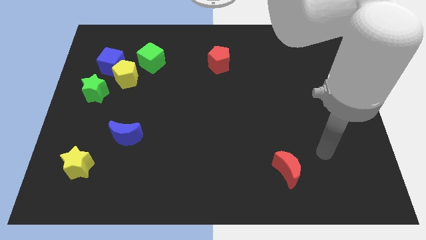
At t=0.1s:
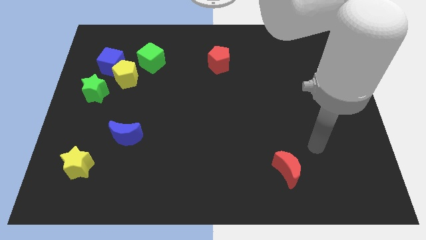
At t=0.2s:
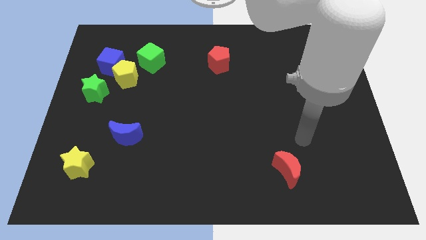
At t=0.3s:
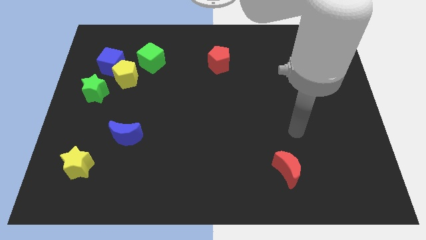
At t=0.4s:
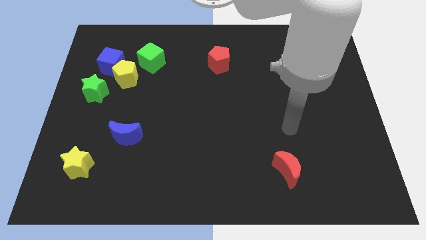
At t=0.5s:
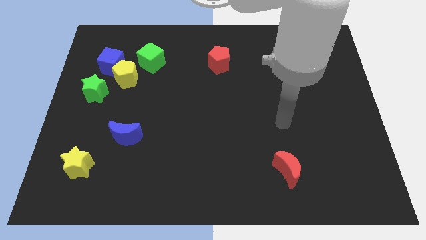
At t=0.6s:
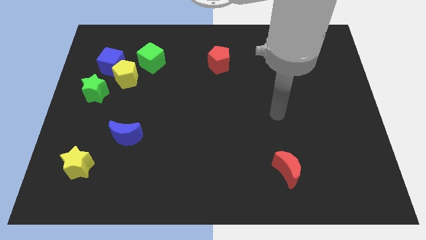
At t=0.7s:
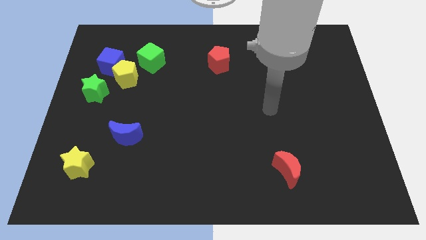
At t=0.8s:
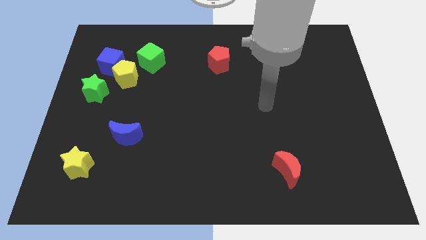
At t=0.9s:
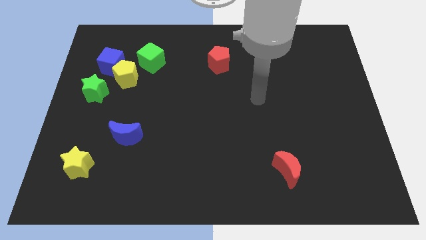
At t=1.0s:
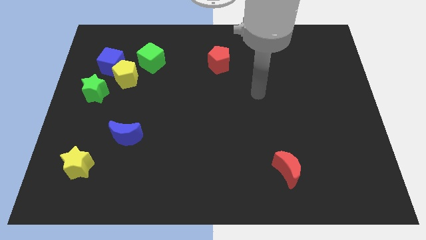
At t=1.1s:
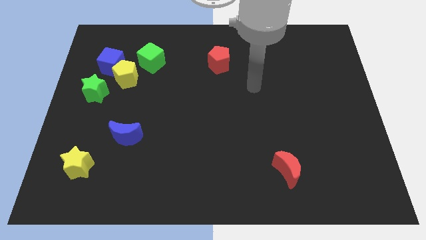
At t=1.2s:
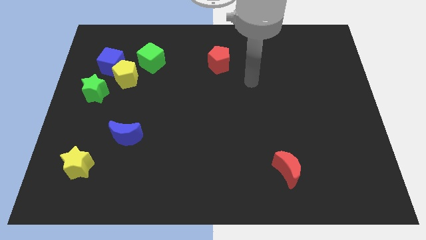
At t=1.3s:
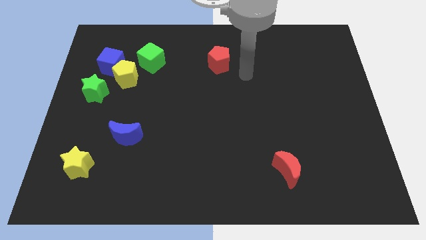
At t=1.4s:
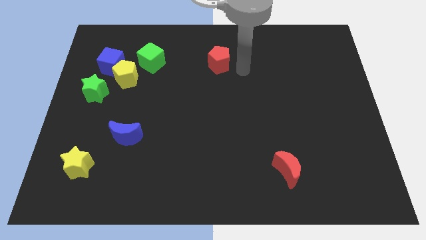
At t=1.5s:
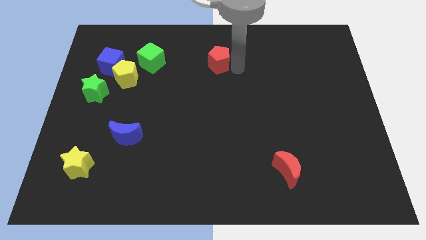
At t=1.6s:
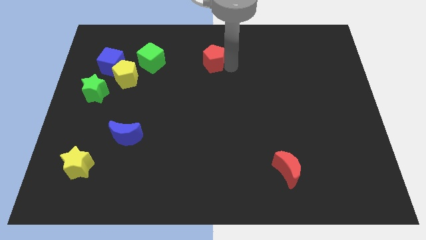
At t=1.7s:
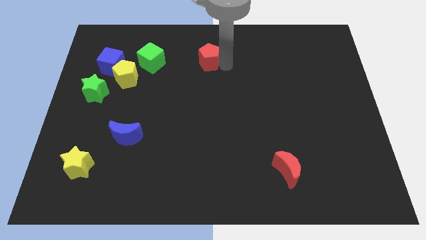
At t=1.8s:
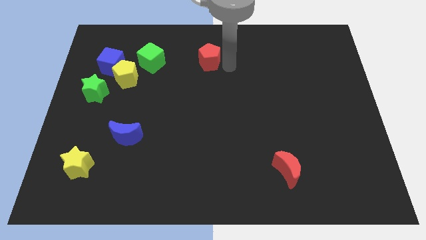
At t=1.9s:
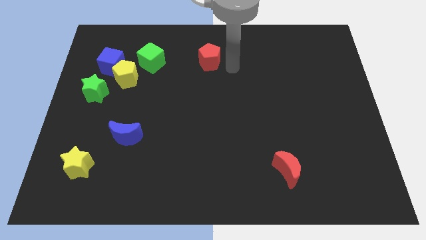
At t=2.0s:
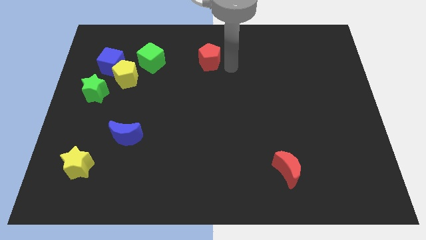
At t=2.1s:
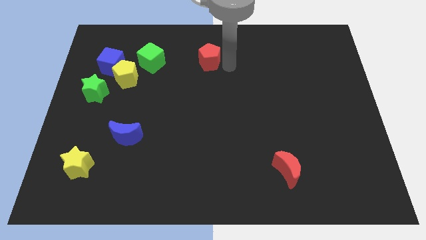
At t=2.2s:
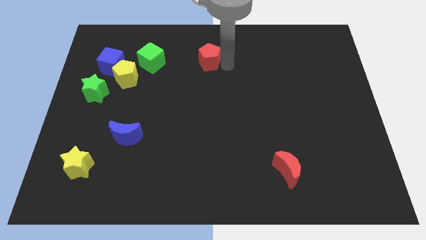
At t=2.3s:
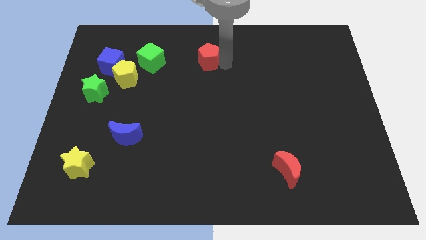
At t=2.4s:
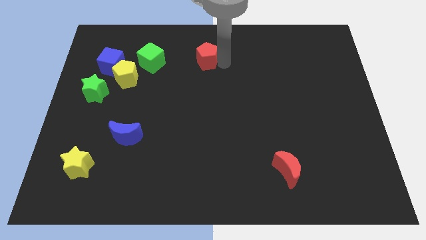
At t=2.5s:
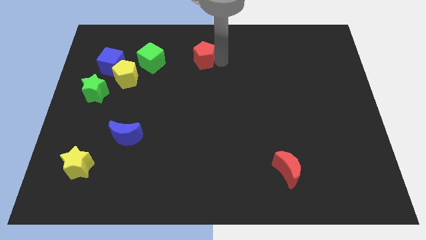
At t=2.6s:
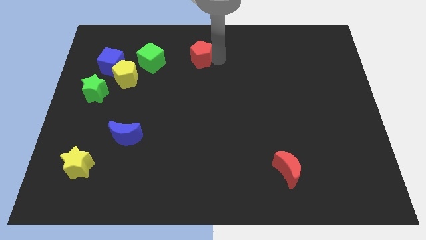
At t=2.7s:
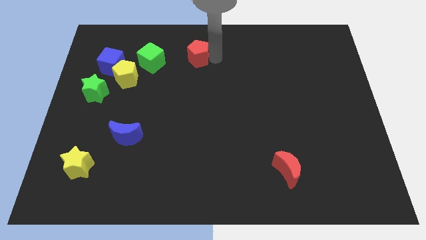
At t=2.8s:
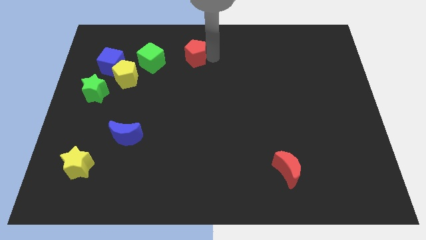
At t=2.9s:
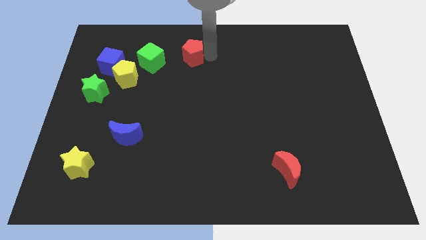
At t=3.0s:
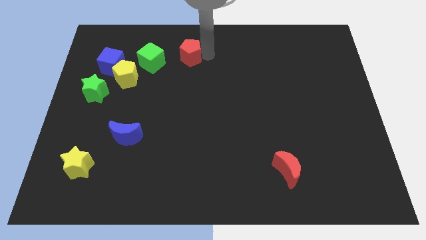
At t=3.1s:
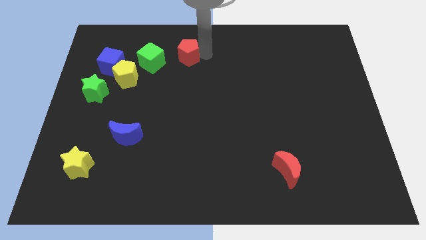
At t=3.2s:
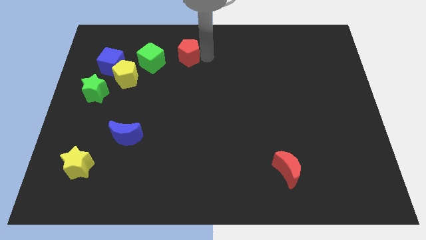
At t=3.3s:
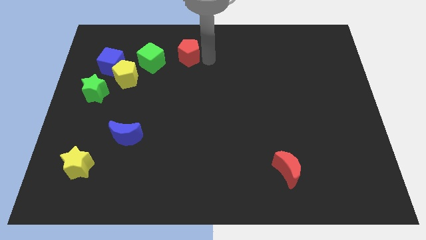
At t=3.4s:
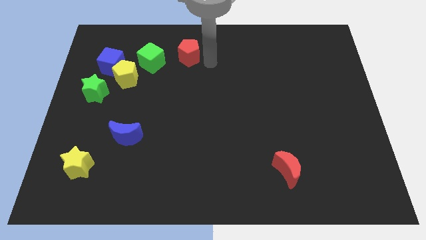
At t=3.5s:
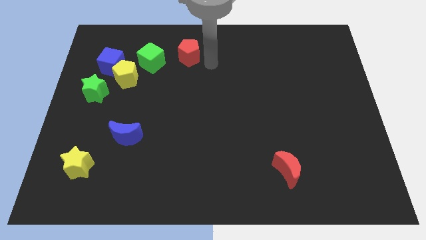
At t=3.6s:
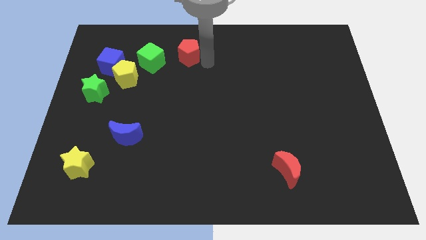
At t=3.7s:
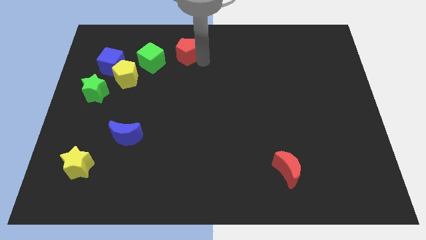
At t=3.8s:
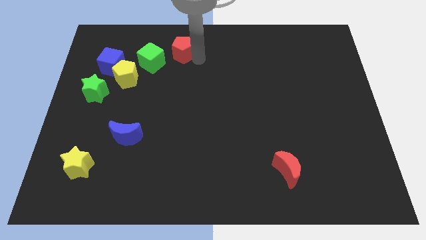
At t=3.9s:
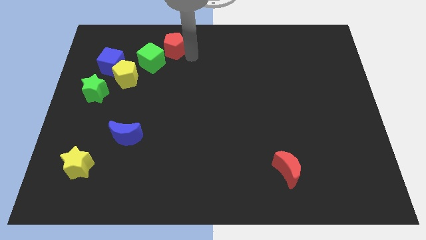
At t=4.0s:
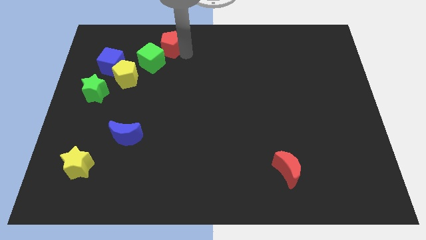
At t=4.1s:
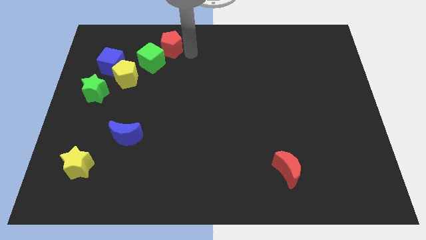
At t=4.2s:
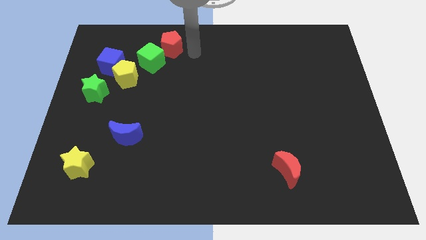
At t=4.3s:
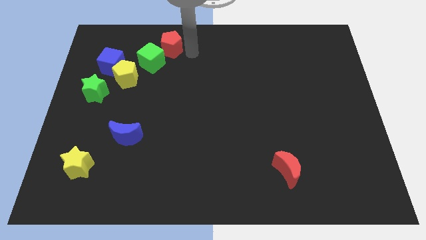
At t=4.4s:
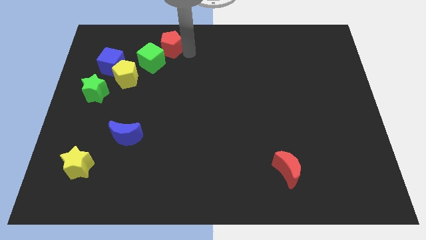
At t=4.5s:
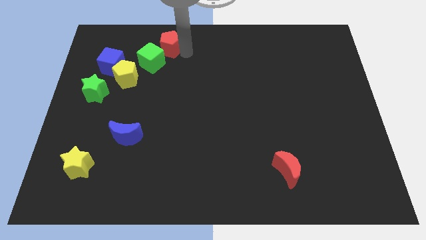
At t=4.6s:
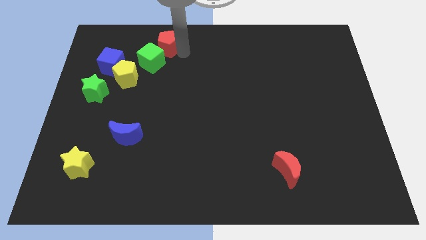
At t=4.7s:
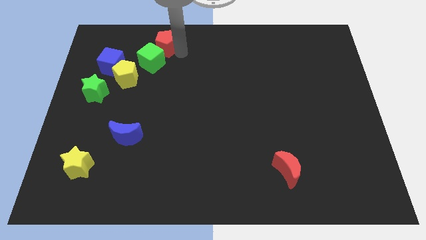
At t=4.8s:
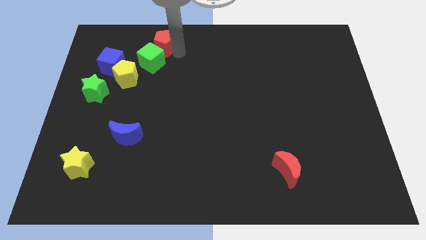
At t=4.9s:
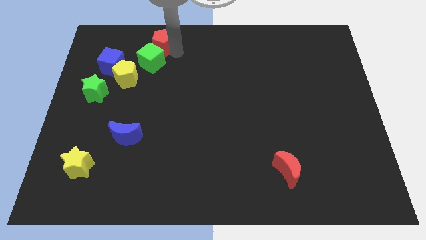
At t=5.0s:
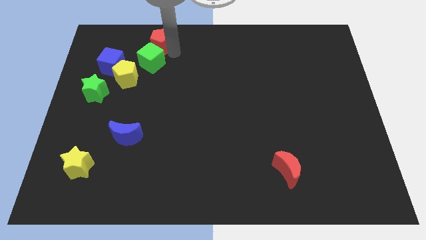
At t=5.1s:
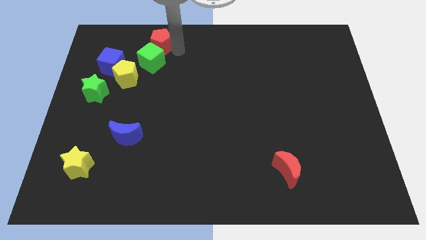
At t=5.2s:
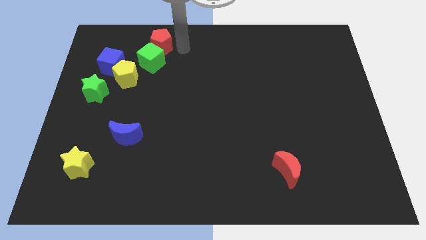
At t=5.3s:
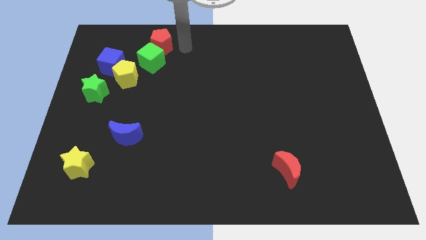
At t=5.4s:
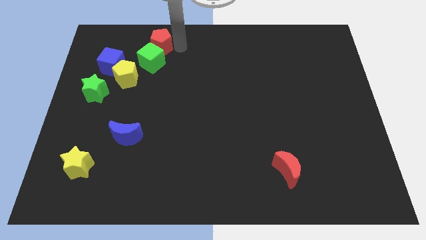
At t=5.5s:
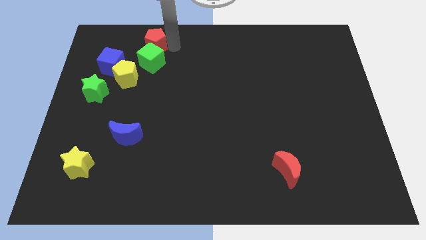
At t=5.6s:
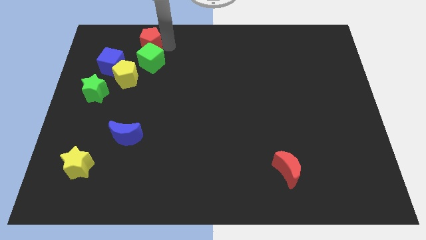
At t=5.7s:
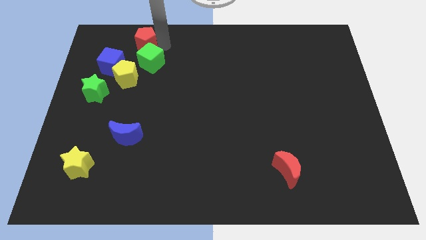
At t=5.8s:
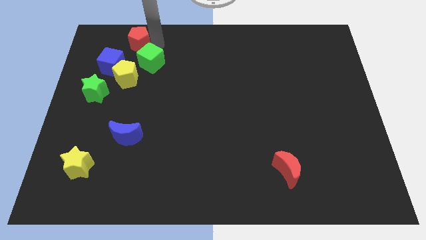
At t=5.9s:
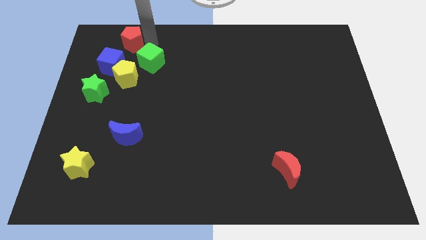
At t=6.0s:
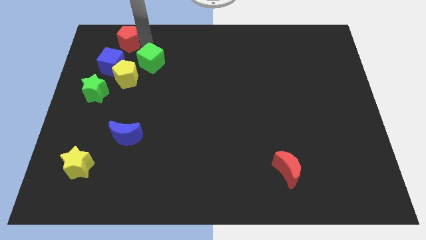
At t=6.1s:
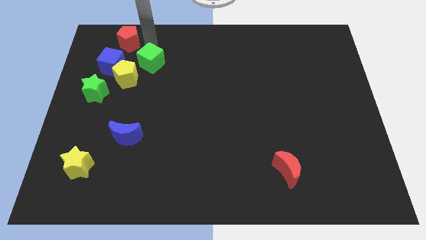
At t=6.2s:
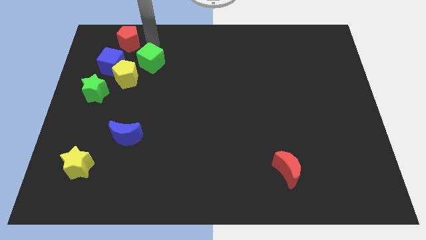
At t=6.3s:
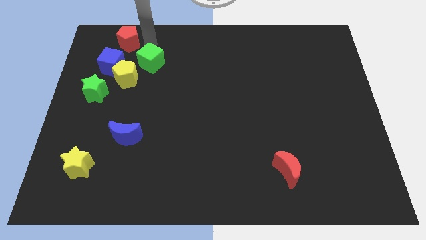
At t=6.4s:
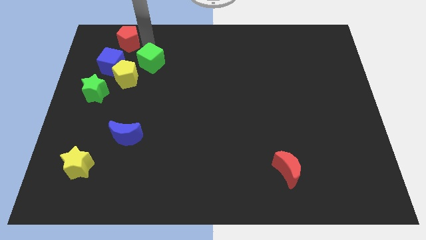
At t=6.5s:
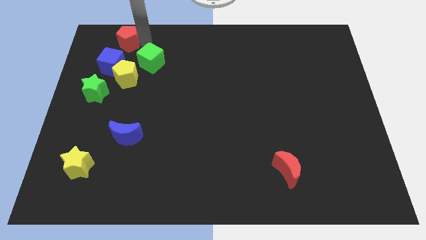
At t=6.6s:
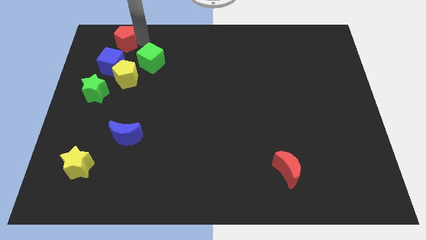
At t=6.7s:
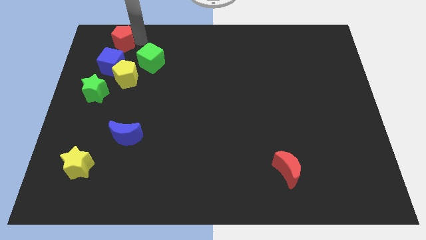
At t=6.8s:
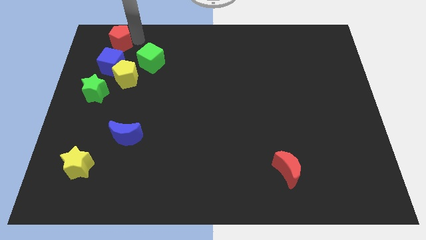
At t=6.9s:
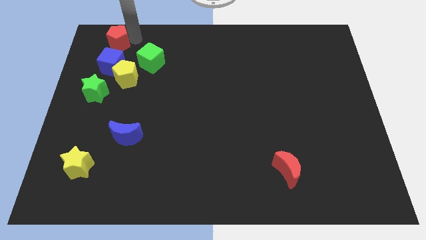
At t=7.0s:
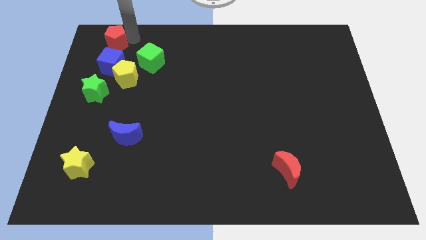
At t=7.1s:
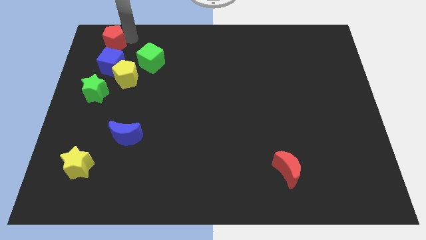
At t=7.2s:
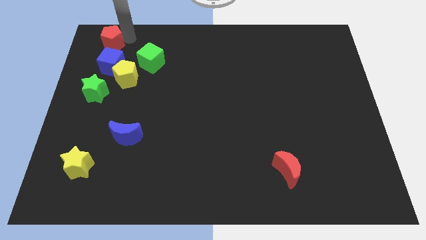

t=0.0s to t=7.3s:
put the red pentagon to the top left
